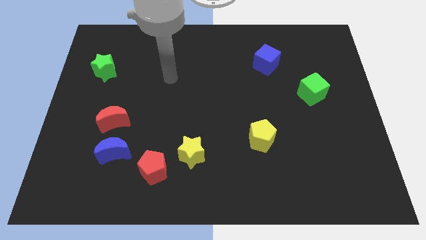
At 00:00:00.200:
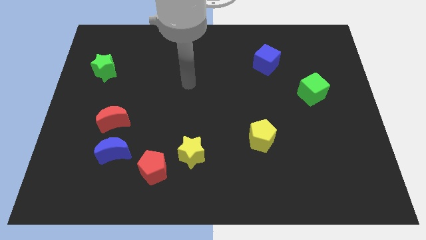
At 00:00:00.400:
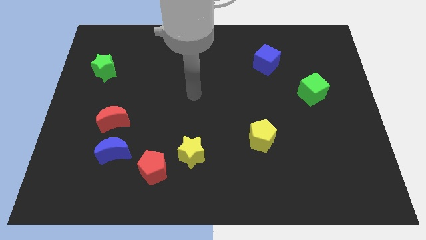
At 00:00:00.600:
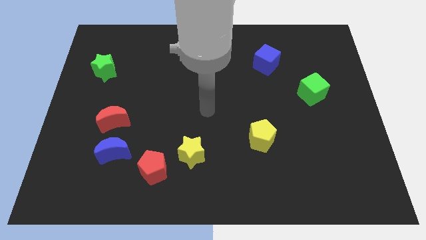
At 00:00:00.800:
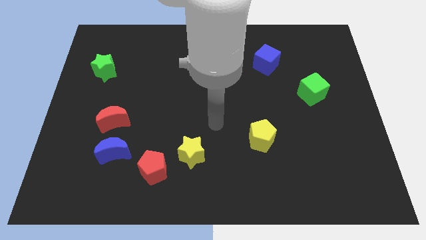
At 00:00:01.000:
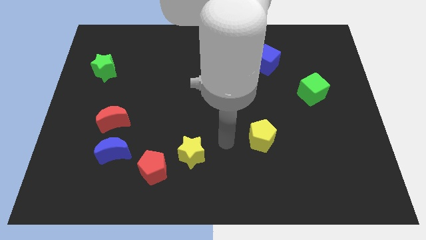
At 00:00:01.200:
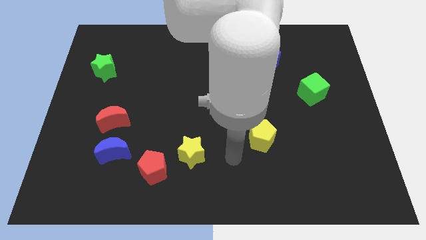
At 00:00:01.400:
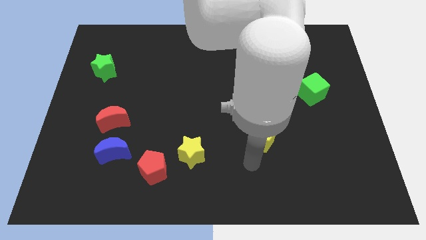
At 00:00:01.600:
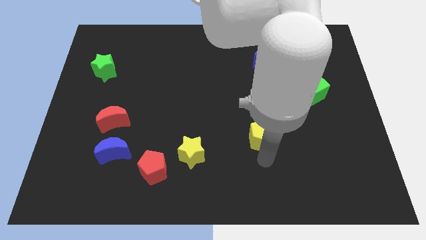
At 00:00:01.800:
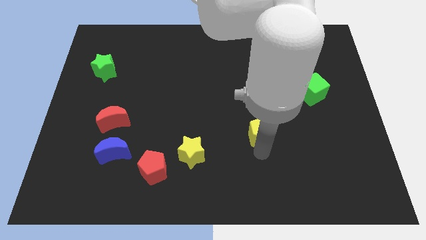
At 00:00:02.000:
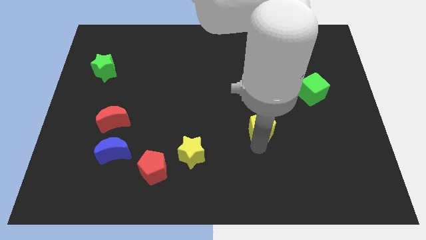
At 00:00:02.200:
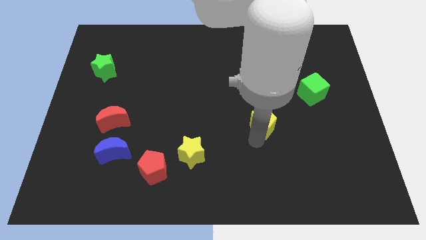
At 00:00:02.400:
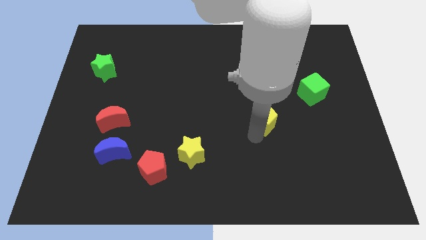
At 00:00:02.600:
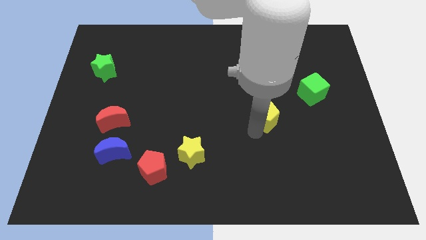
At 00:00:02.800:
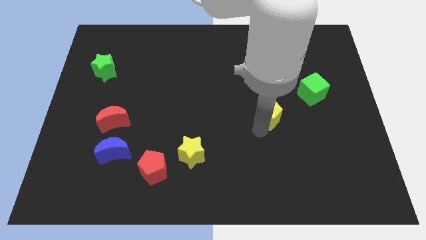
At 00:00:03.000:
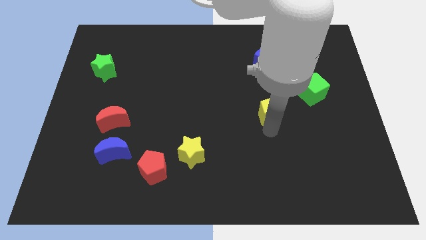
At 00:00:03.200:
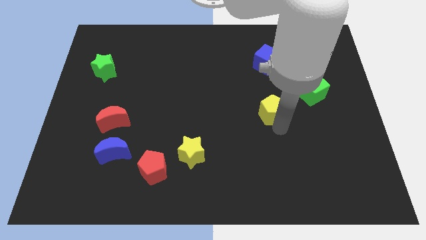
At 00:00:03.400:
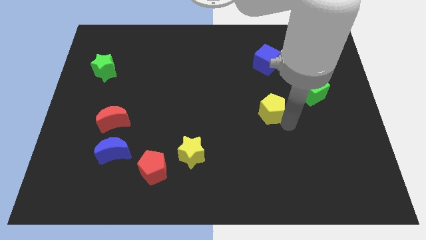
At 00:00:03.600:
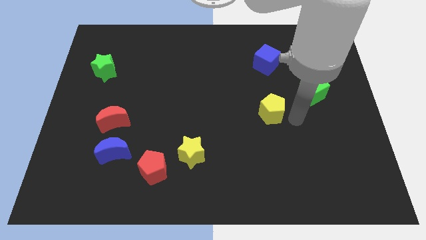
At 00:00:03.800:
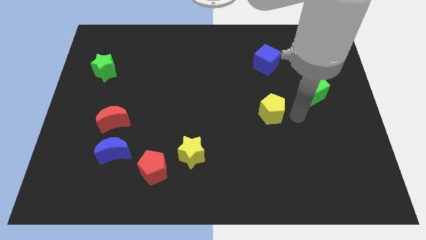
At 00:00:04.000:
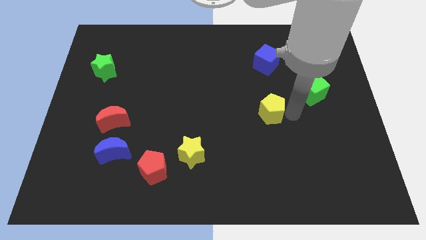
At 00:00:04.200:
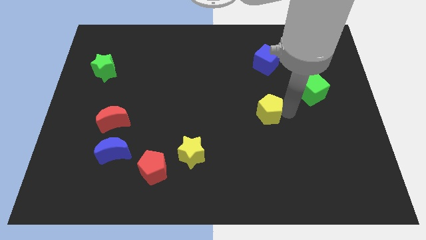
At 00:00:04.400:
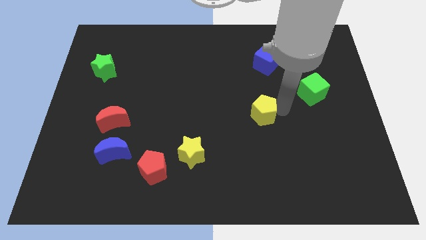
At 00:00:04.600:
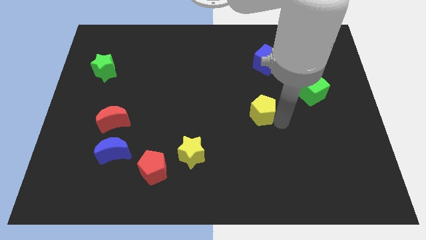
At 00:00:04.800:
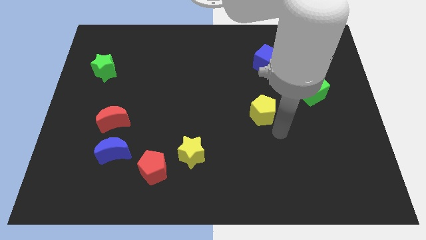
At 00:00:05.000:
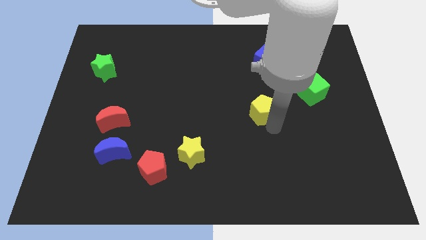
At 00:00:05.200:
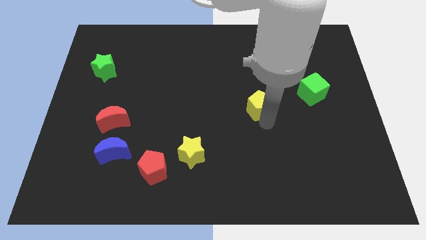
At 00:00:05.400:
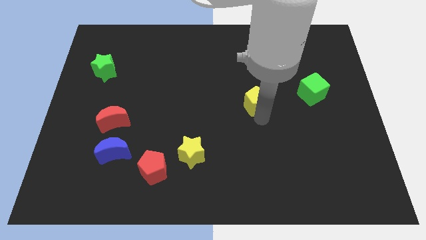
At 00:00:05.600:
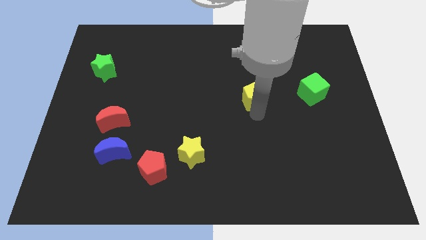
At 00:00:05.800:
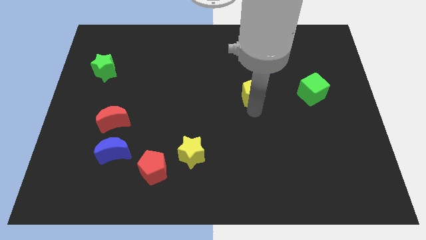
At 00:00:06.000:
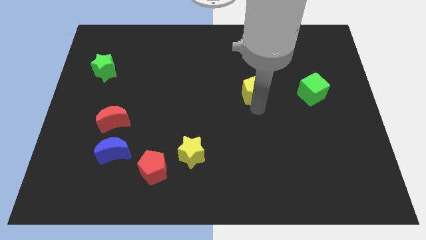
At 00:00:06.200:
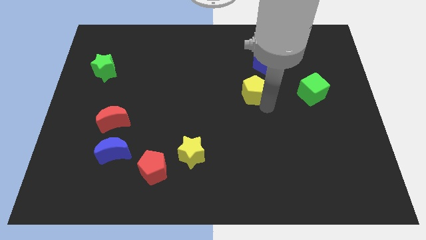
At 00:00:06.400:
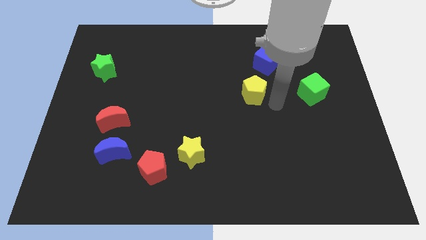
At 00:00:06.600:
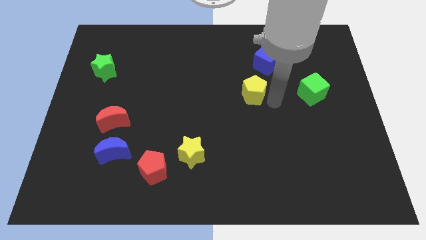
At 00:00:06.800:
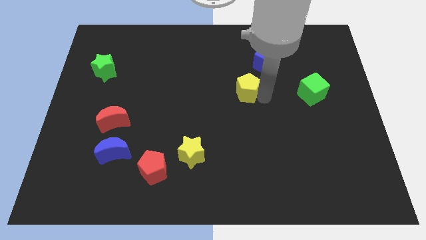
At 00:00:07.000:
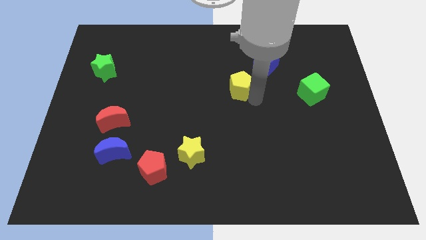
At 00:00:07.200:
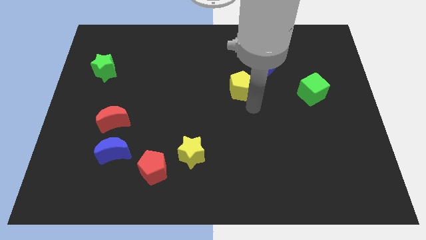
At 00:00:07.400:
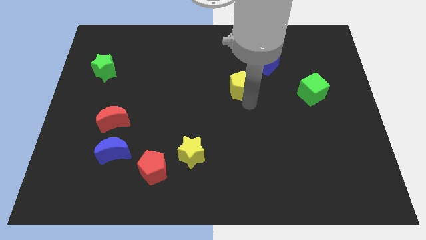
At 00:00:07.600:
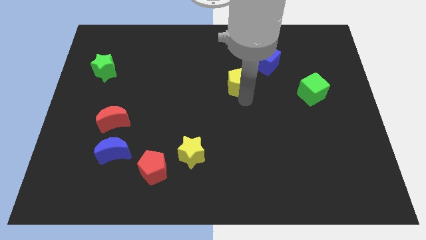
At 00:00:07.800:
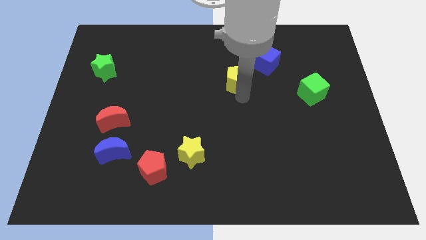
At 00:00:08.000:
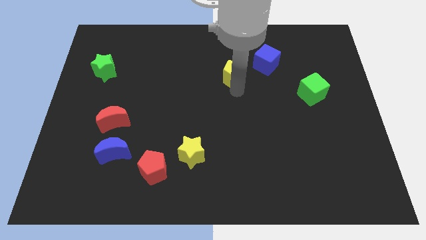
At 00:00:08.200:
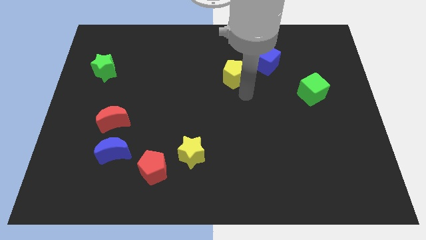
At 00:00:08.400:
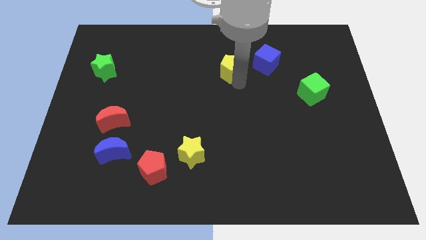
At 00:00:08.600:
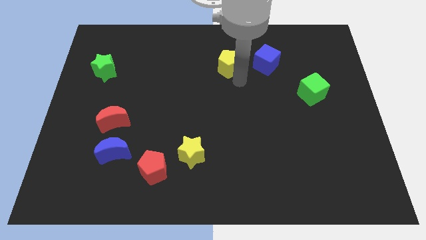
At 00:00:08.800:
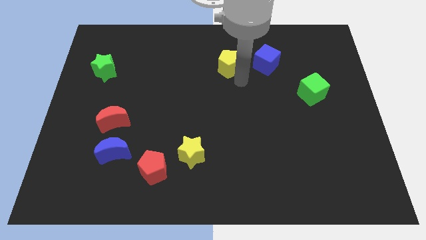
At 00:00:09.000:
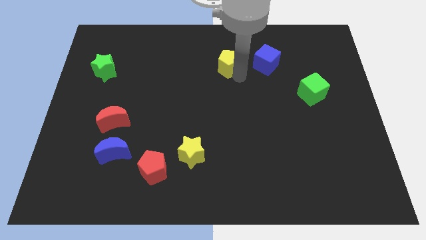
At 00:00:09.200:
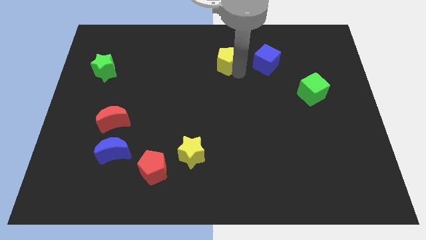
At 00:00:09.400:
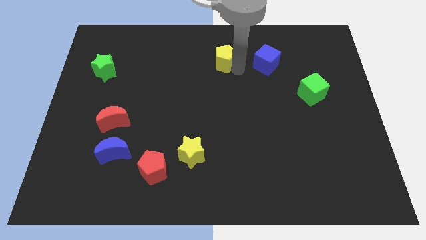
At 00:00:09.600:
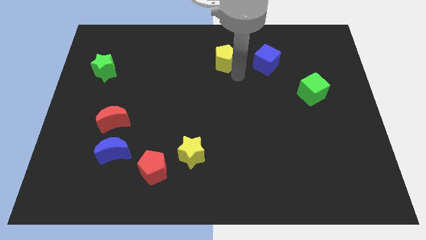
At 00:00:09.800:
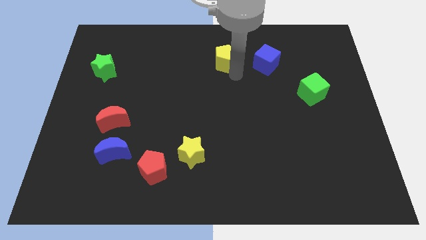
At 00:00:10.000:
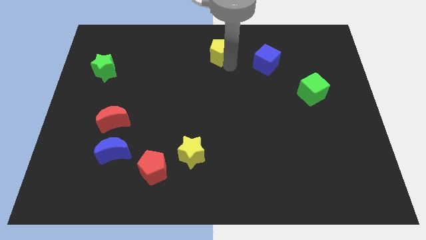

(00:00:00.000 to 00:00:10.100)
move the yellow pentagon to the top

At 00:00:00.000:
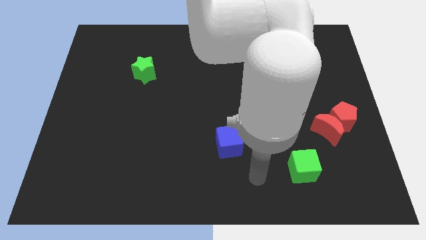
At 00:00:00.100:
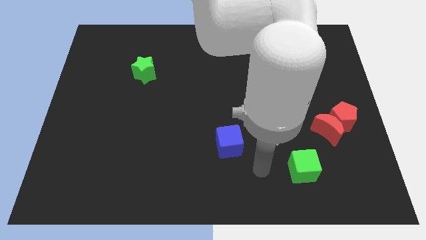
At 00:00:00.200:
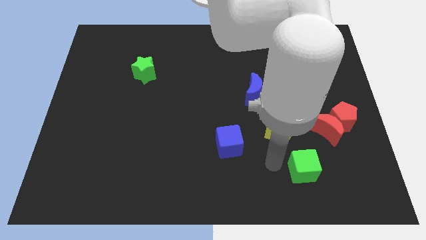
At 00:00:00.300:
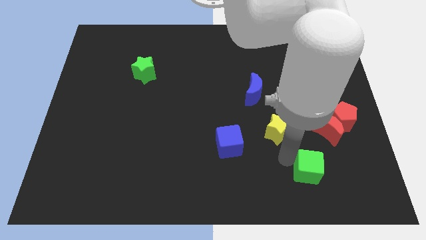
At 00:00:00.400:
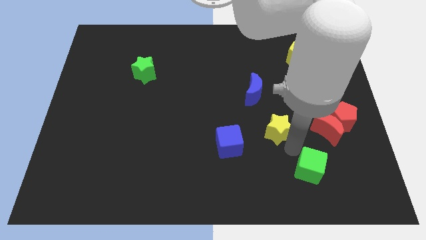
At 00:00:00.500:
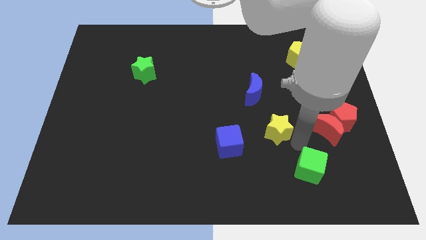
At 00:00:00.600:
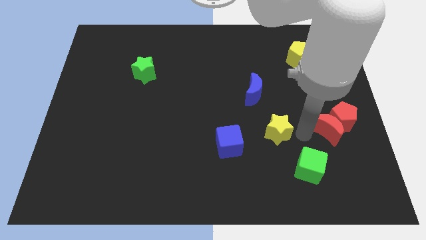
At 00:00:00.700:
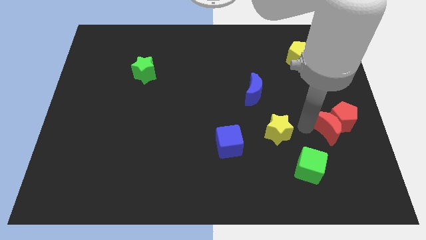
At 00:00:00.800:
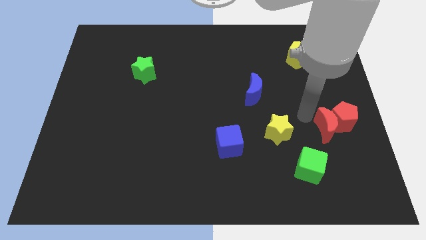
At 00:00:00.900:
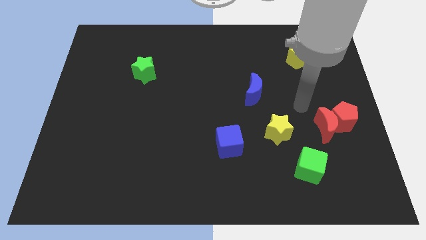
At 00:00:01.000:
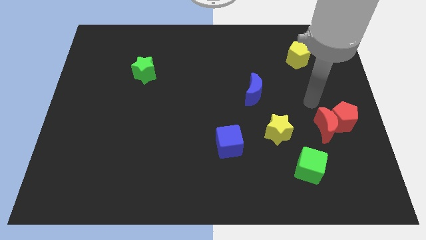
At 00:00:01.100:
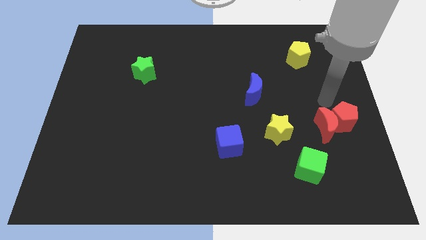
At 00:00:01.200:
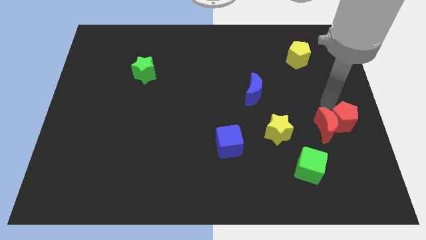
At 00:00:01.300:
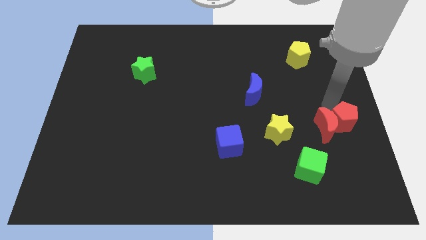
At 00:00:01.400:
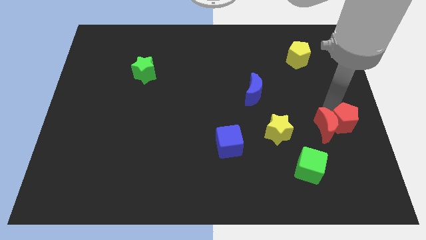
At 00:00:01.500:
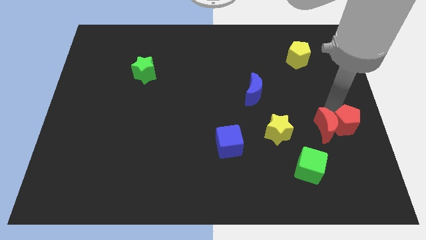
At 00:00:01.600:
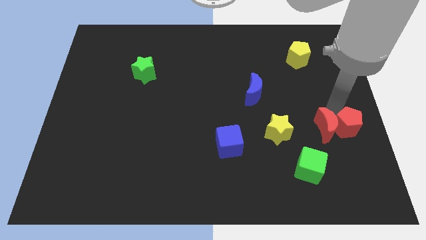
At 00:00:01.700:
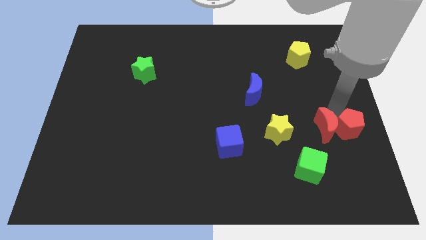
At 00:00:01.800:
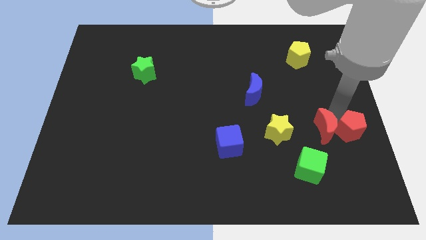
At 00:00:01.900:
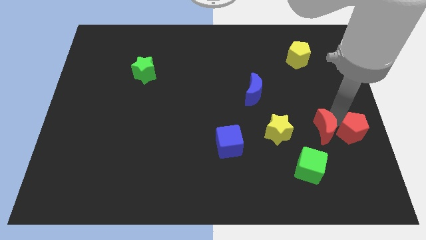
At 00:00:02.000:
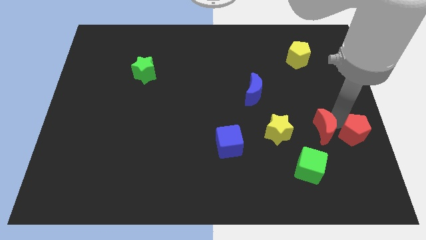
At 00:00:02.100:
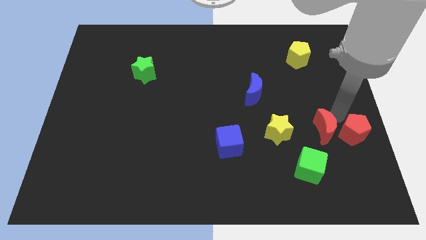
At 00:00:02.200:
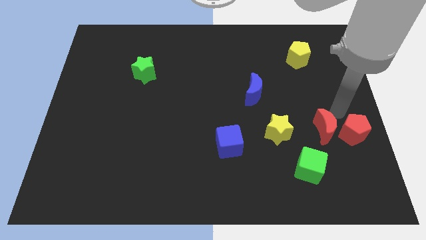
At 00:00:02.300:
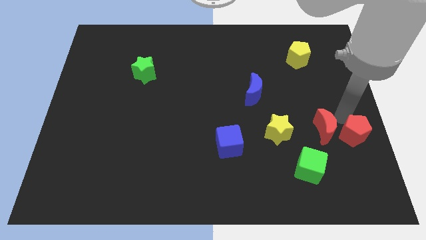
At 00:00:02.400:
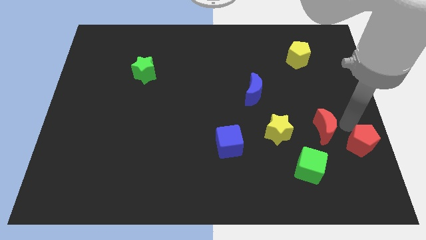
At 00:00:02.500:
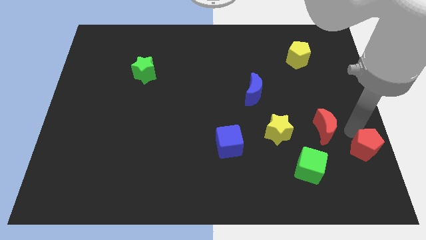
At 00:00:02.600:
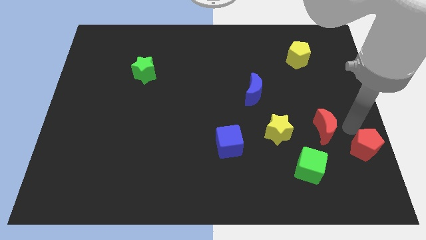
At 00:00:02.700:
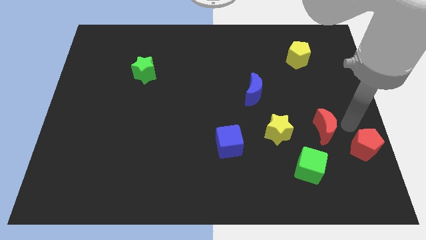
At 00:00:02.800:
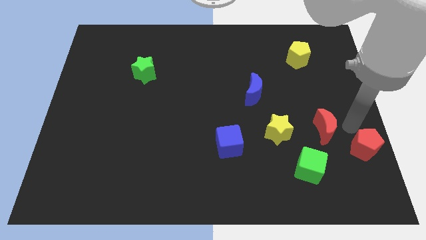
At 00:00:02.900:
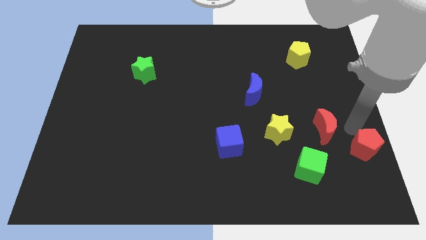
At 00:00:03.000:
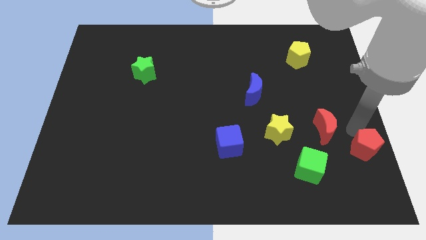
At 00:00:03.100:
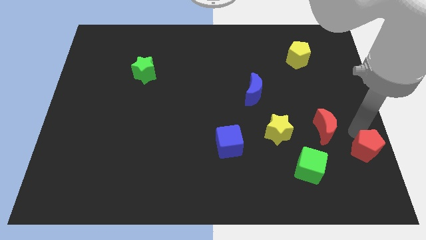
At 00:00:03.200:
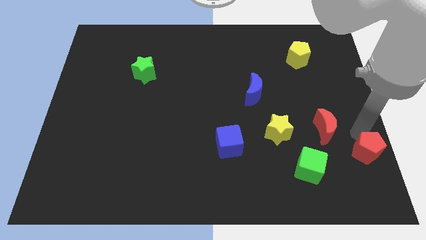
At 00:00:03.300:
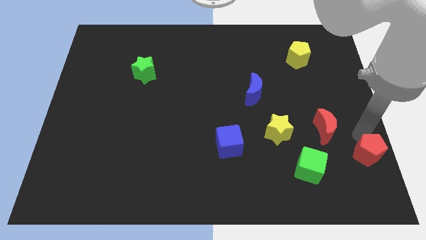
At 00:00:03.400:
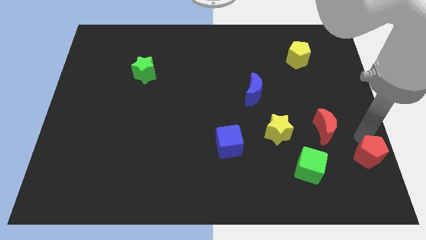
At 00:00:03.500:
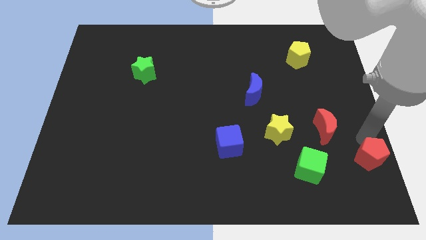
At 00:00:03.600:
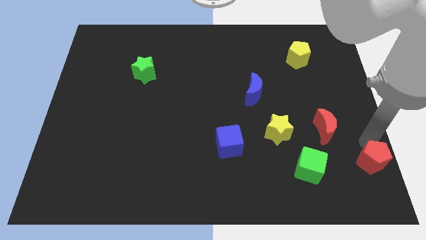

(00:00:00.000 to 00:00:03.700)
put the red pentagon to the bottom right of the board
